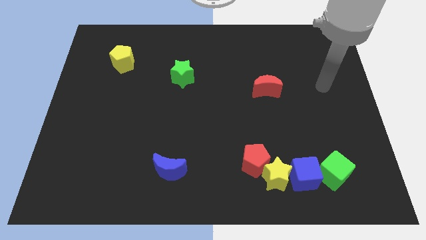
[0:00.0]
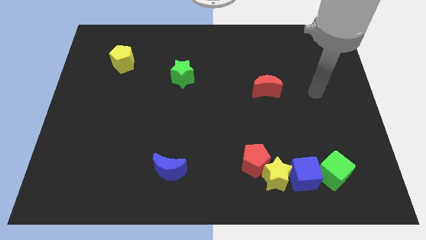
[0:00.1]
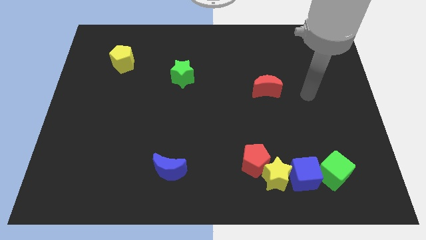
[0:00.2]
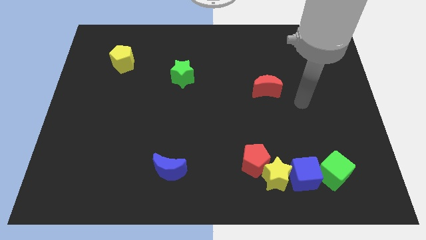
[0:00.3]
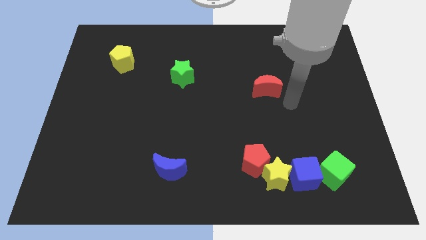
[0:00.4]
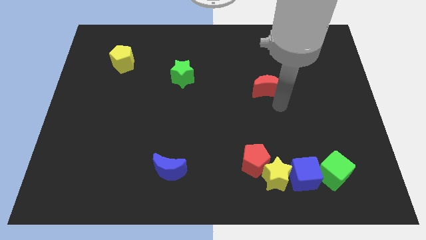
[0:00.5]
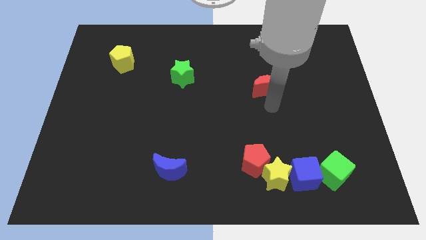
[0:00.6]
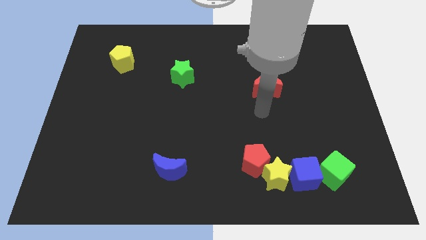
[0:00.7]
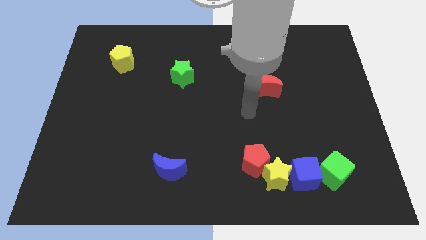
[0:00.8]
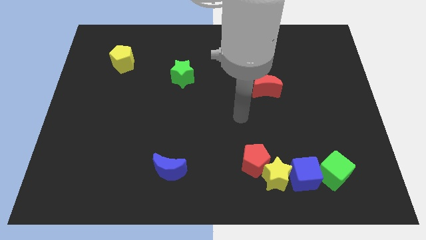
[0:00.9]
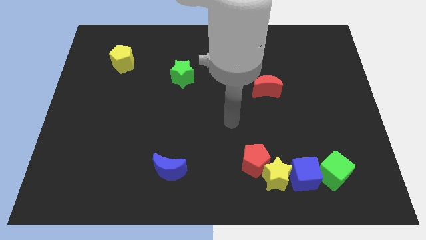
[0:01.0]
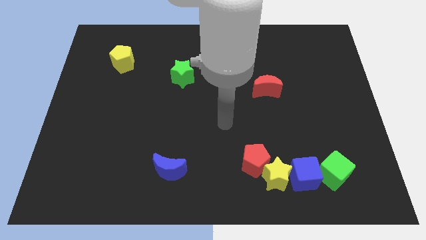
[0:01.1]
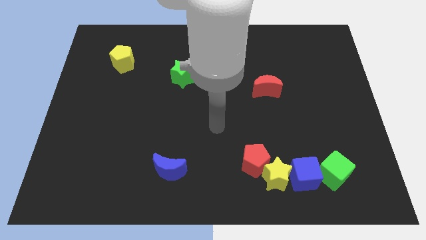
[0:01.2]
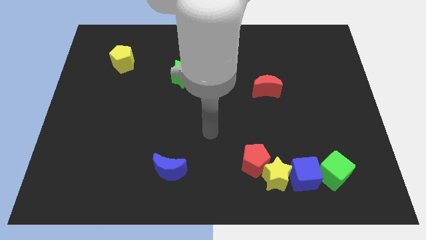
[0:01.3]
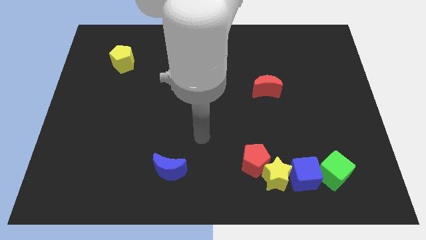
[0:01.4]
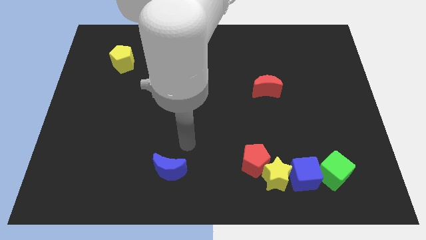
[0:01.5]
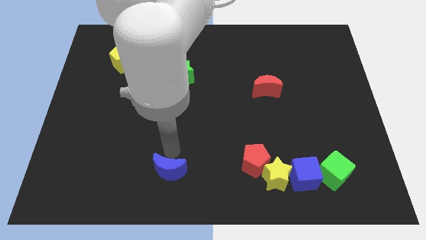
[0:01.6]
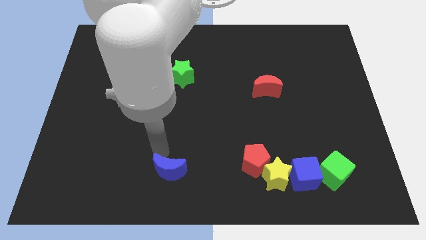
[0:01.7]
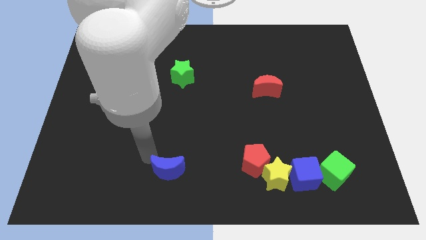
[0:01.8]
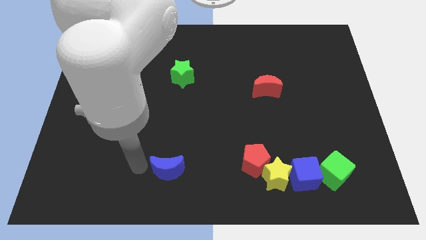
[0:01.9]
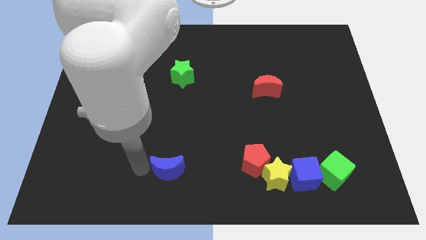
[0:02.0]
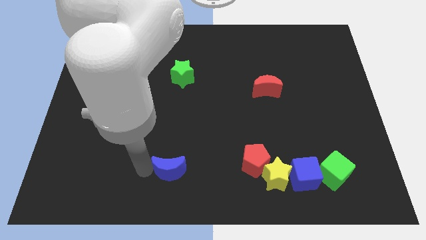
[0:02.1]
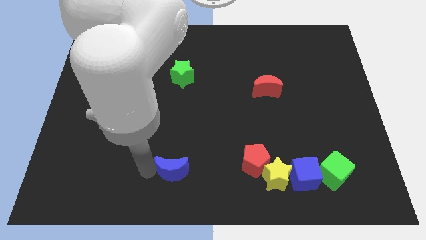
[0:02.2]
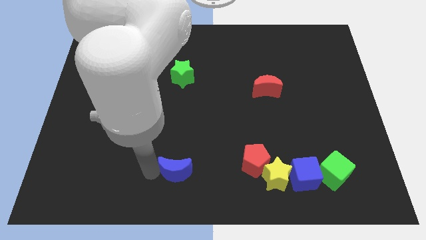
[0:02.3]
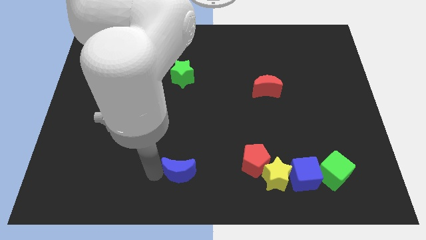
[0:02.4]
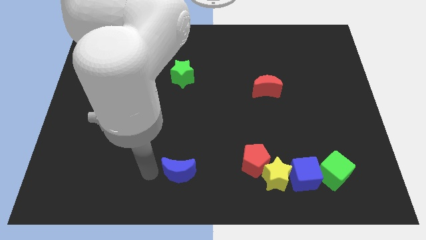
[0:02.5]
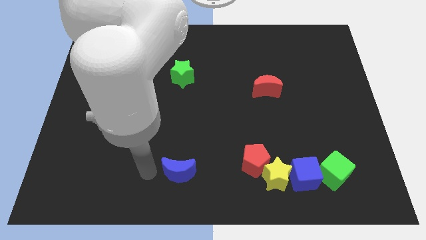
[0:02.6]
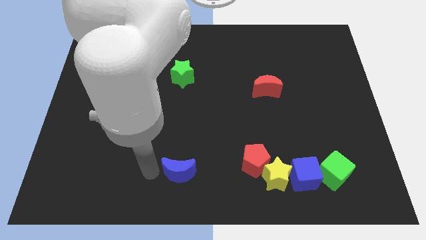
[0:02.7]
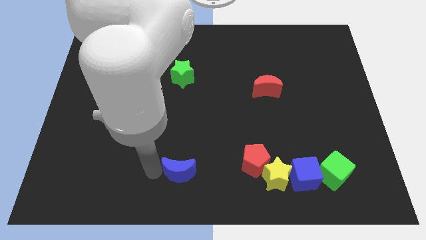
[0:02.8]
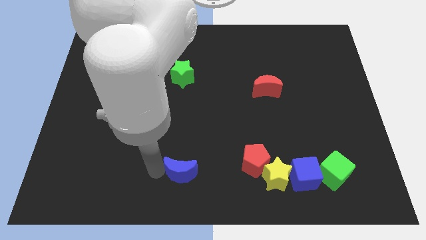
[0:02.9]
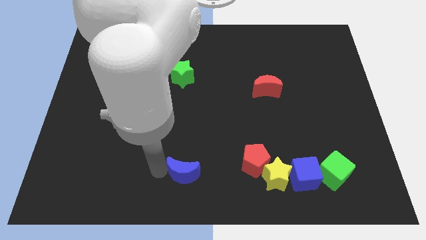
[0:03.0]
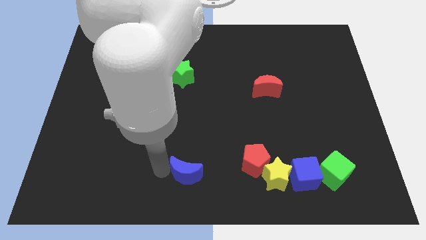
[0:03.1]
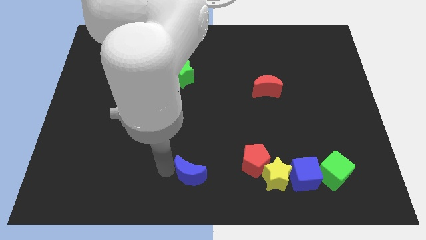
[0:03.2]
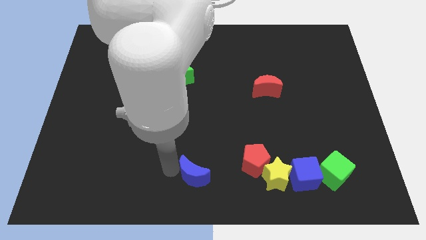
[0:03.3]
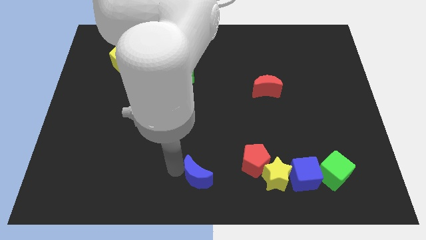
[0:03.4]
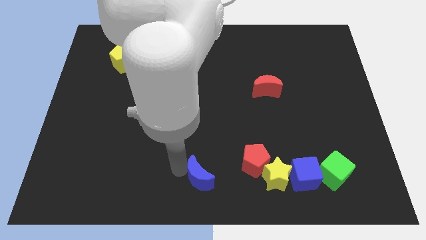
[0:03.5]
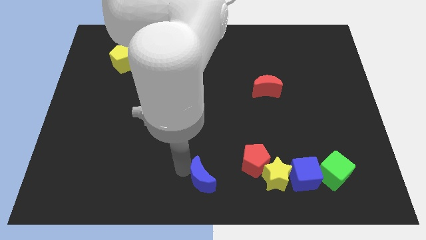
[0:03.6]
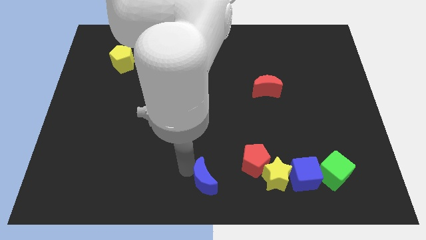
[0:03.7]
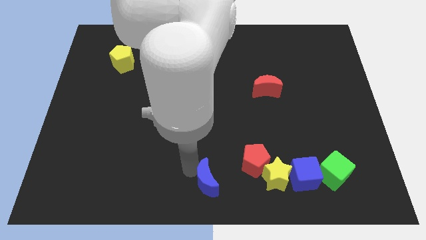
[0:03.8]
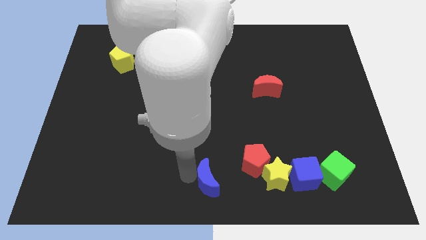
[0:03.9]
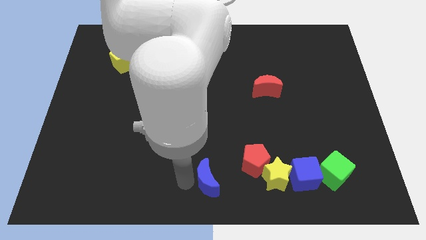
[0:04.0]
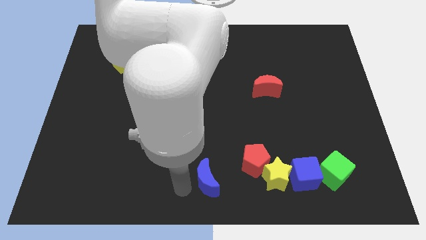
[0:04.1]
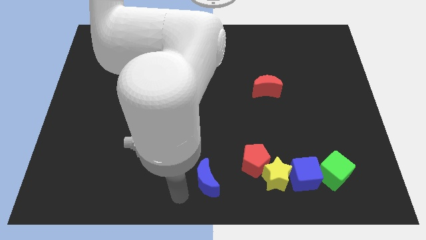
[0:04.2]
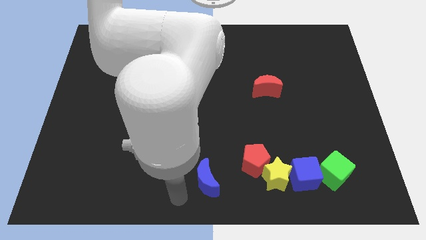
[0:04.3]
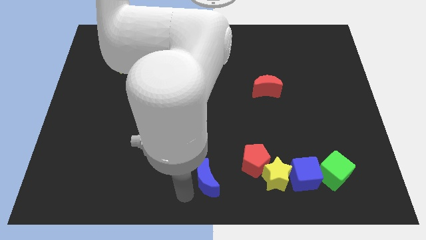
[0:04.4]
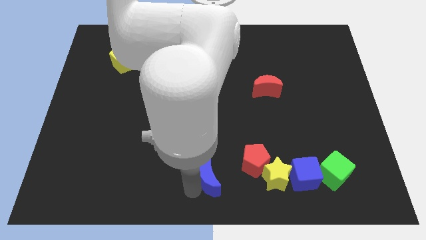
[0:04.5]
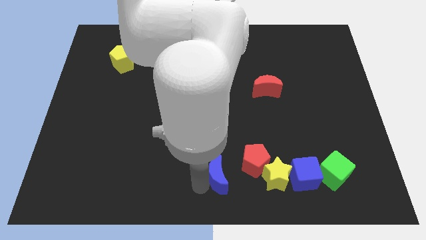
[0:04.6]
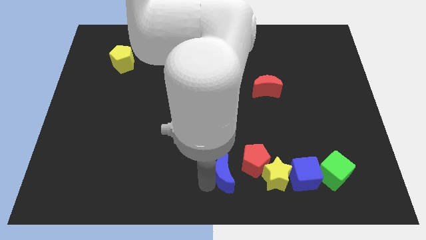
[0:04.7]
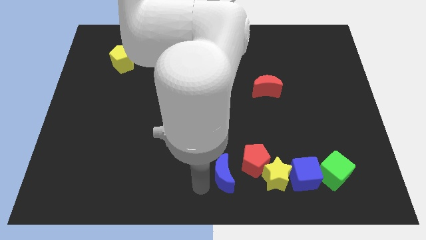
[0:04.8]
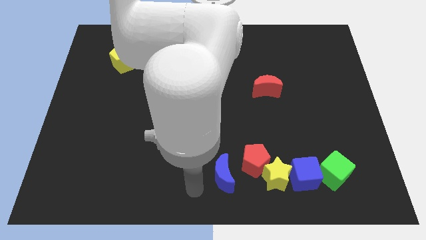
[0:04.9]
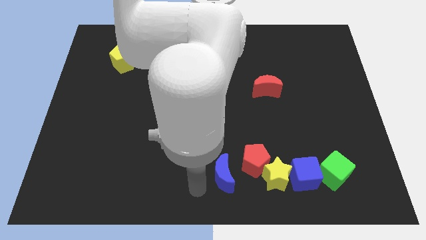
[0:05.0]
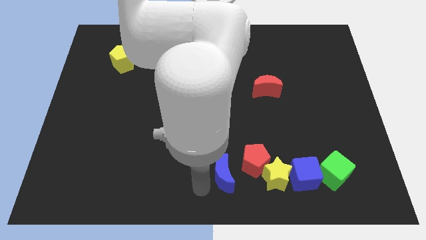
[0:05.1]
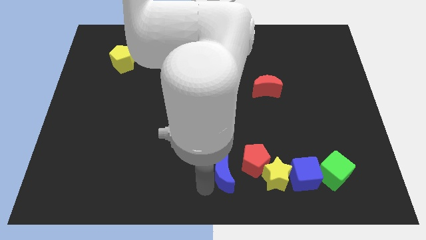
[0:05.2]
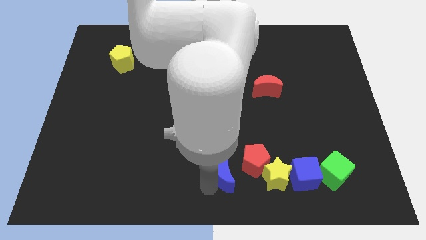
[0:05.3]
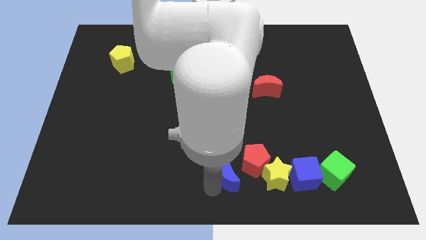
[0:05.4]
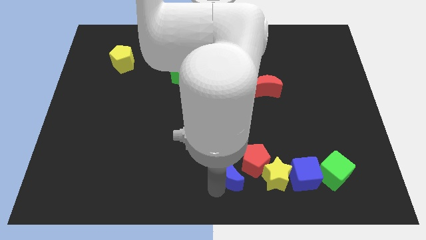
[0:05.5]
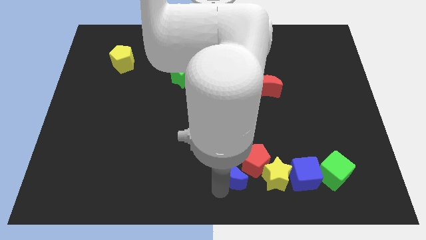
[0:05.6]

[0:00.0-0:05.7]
move the blue moon towards the red pentagon
